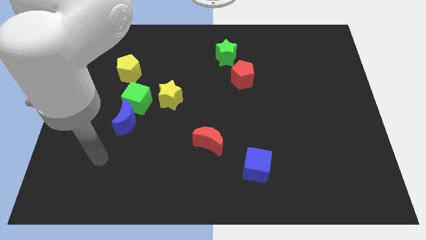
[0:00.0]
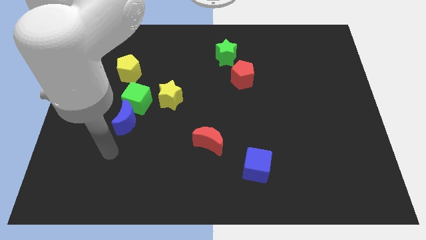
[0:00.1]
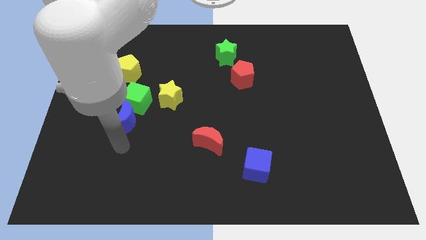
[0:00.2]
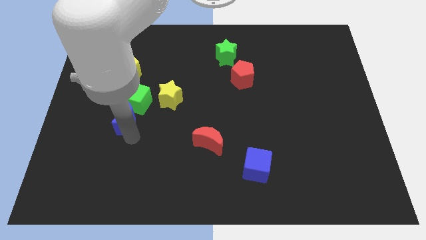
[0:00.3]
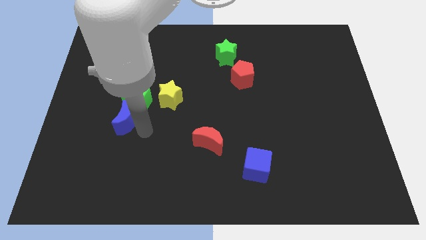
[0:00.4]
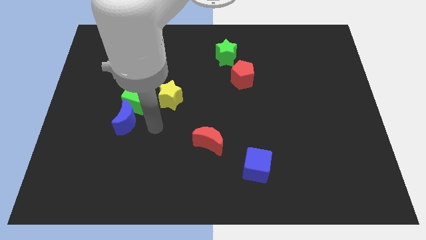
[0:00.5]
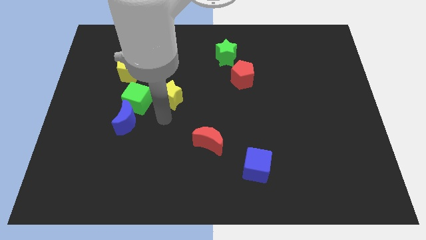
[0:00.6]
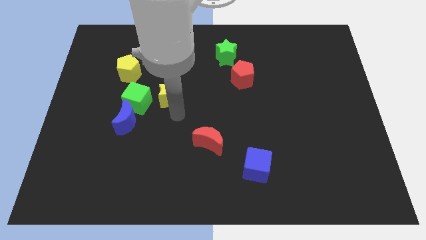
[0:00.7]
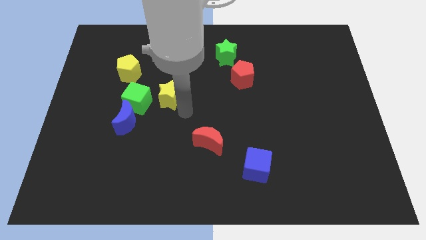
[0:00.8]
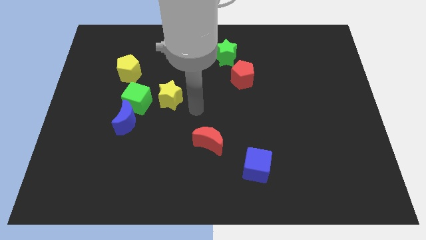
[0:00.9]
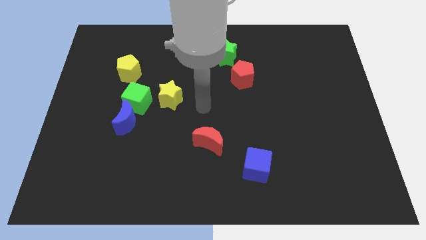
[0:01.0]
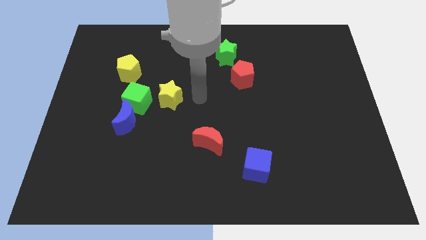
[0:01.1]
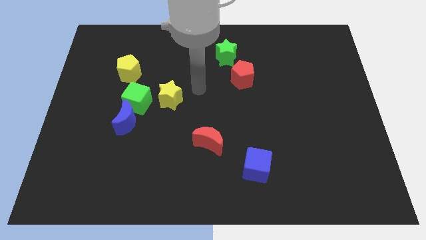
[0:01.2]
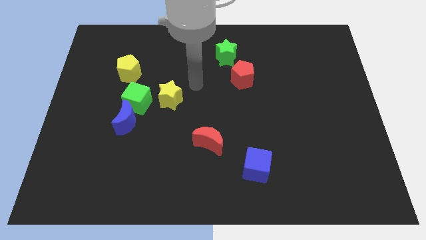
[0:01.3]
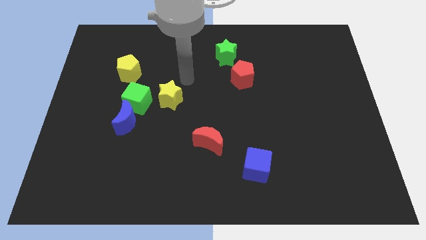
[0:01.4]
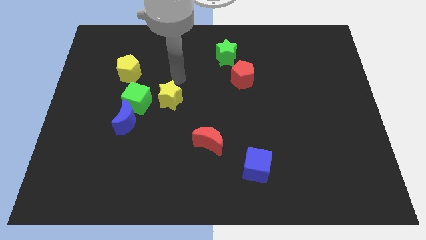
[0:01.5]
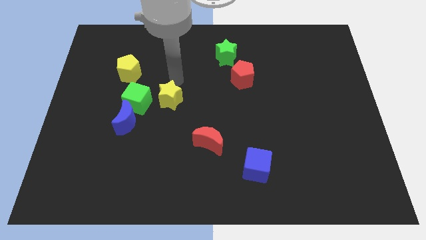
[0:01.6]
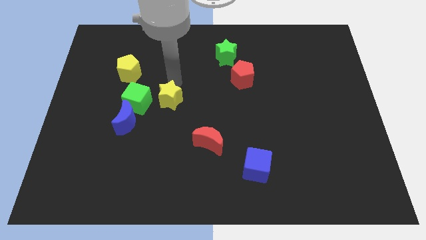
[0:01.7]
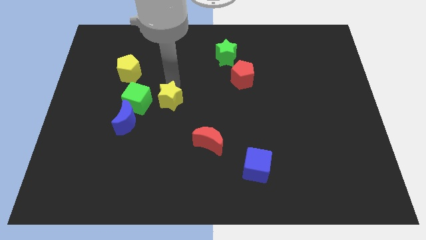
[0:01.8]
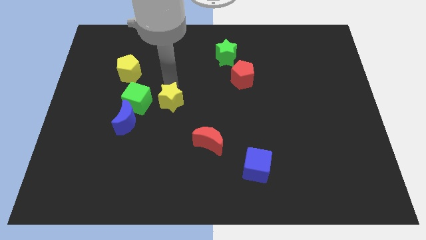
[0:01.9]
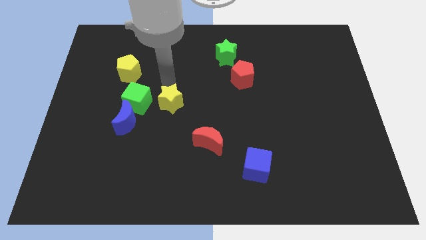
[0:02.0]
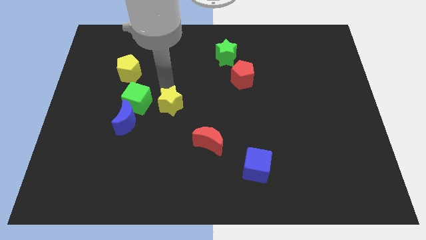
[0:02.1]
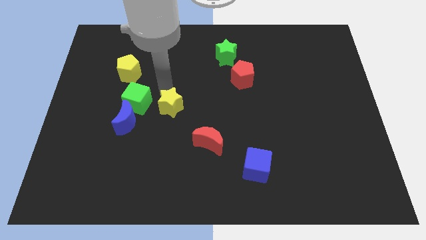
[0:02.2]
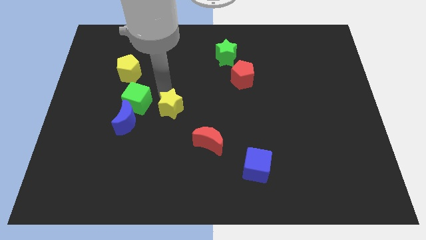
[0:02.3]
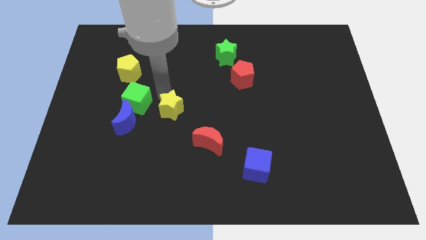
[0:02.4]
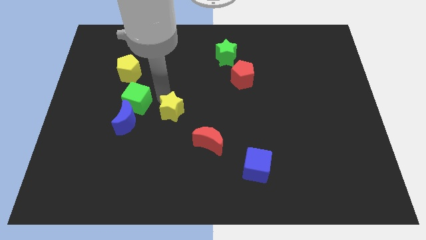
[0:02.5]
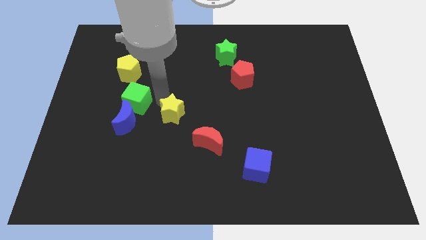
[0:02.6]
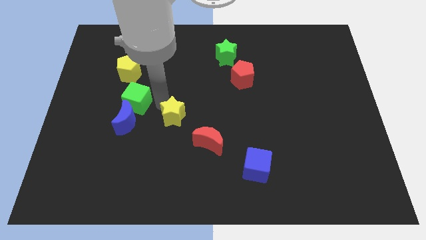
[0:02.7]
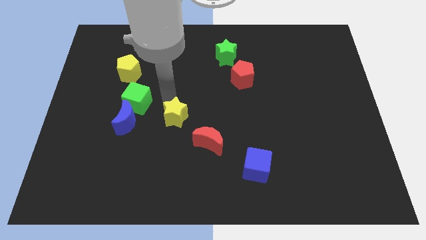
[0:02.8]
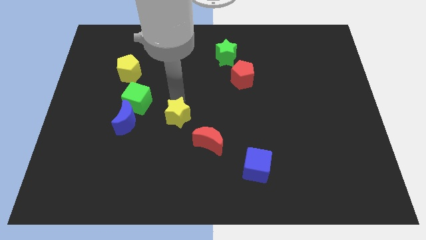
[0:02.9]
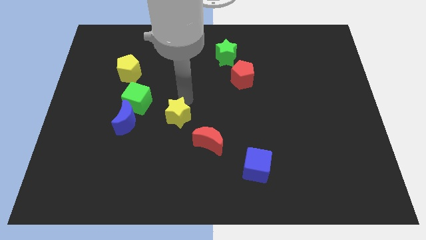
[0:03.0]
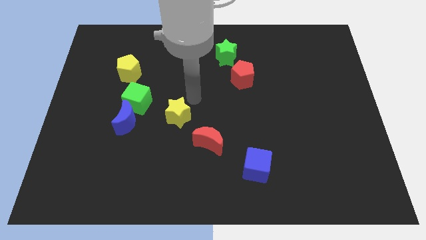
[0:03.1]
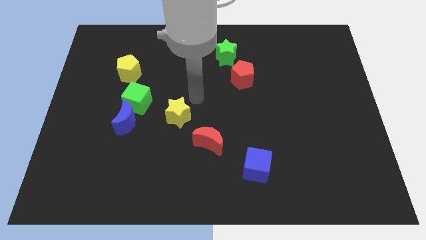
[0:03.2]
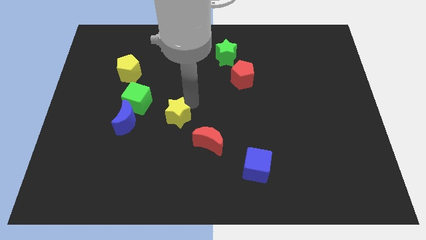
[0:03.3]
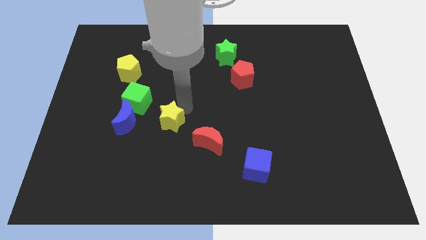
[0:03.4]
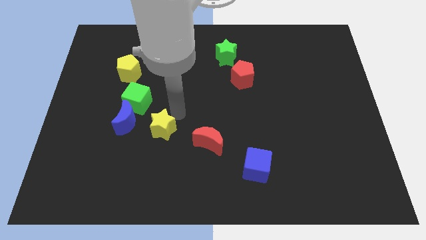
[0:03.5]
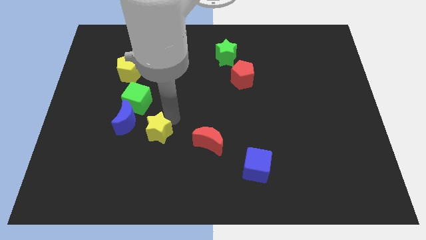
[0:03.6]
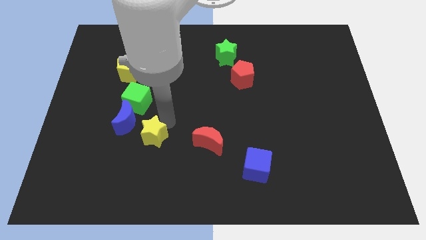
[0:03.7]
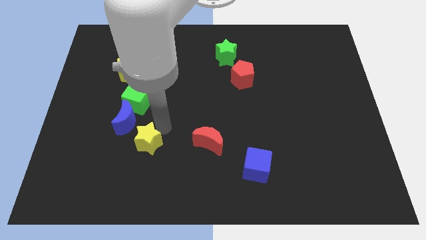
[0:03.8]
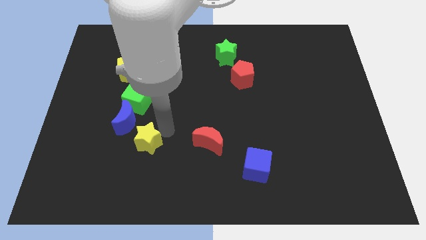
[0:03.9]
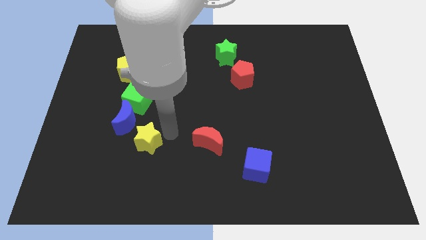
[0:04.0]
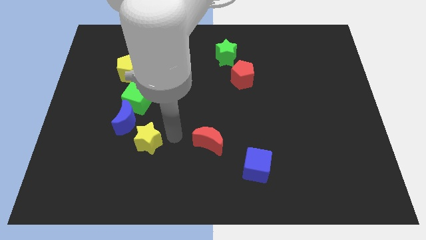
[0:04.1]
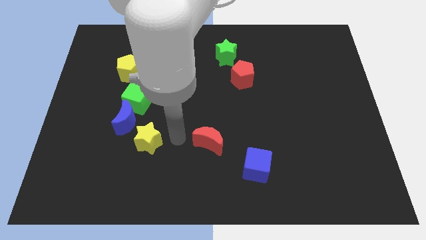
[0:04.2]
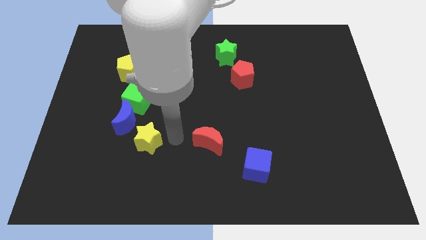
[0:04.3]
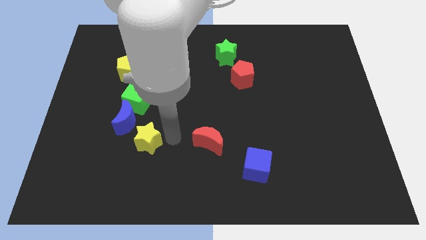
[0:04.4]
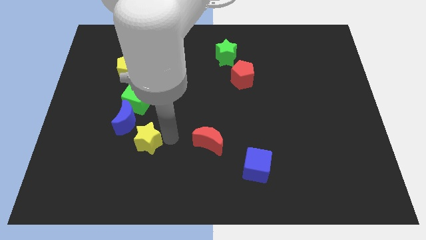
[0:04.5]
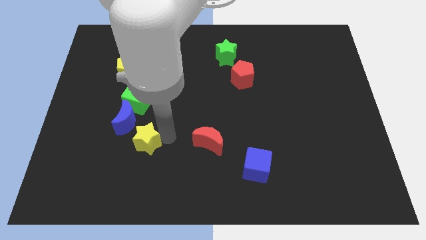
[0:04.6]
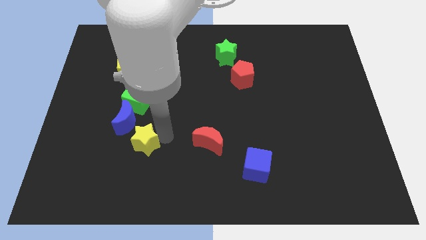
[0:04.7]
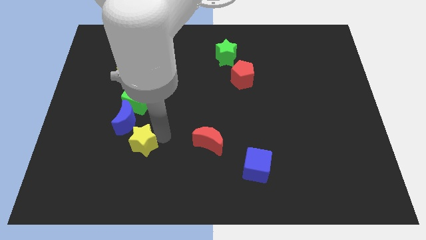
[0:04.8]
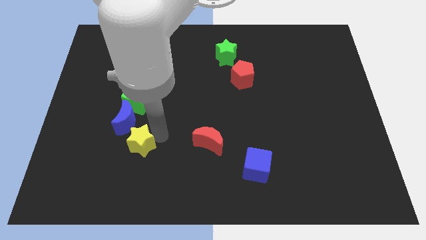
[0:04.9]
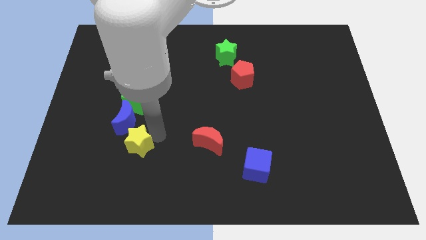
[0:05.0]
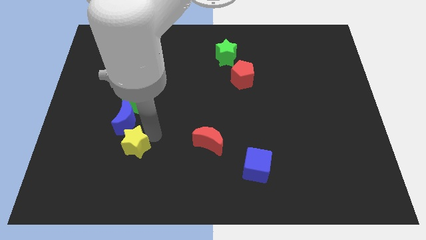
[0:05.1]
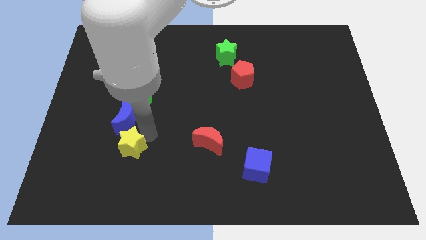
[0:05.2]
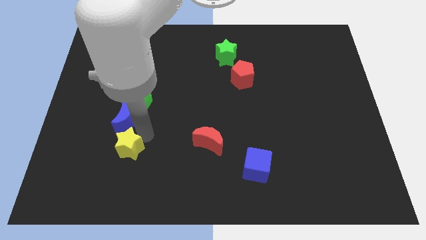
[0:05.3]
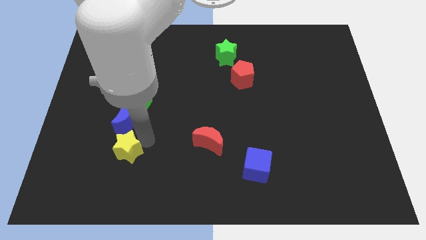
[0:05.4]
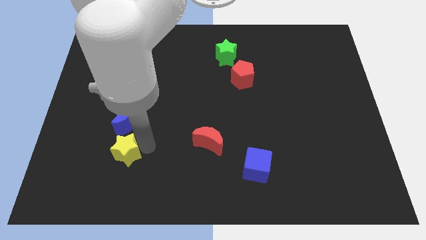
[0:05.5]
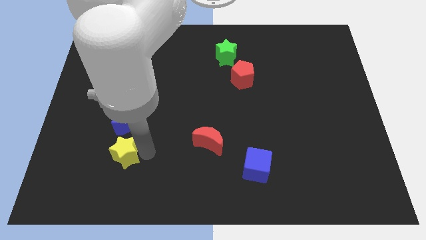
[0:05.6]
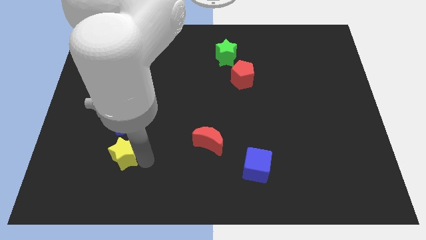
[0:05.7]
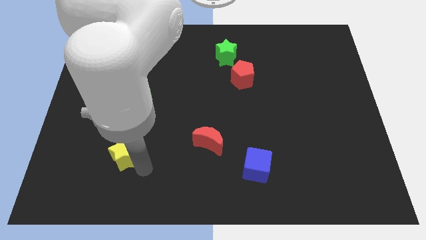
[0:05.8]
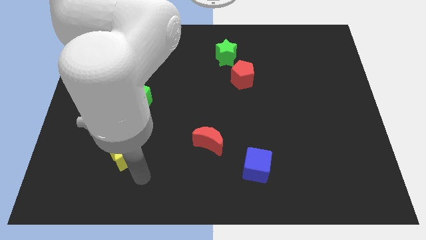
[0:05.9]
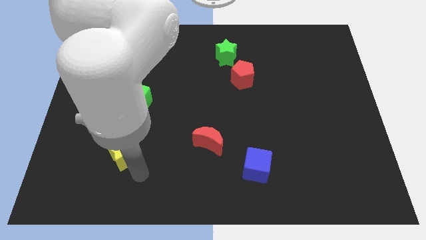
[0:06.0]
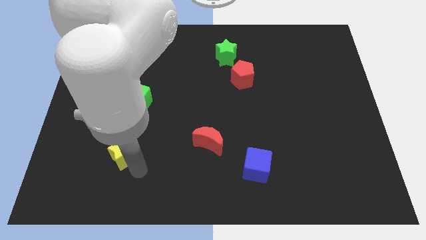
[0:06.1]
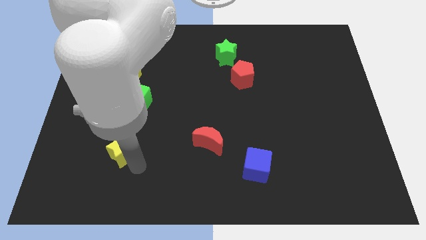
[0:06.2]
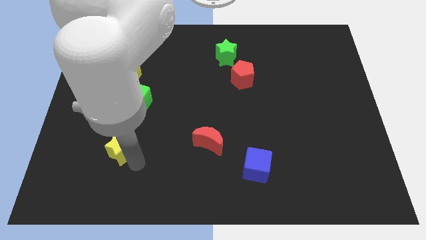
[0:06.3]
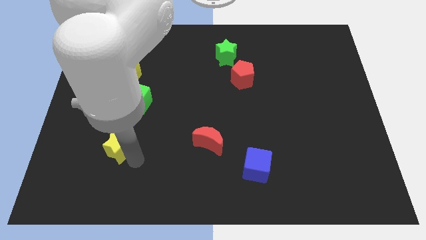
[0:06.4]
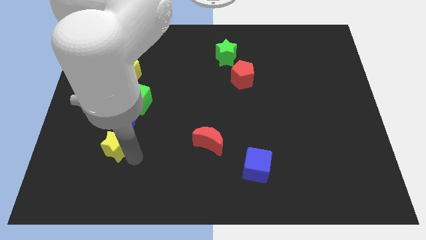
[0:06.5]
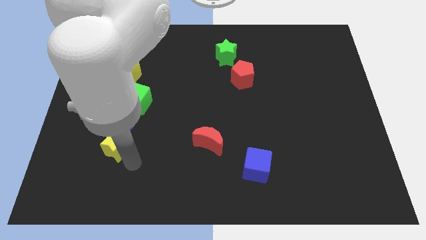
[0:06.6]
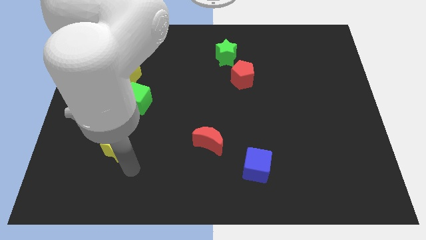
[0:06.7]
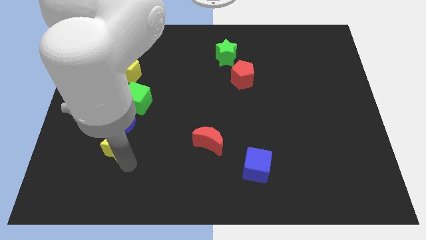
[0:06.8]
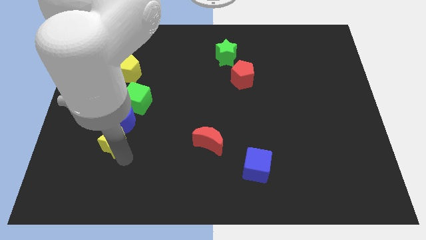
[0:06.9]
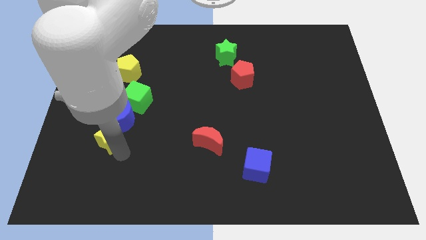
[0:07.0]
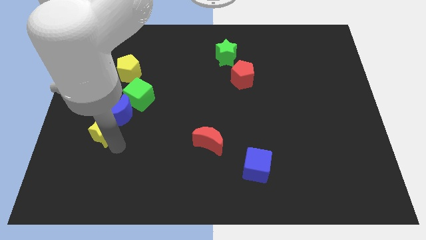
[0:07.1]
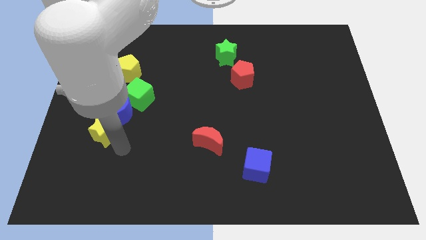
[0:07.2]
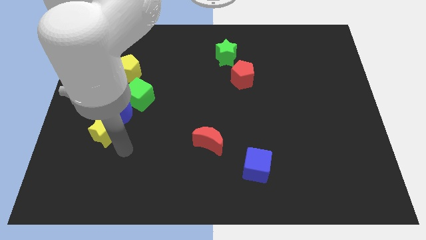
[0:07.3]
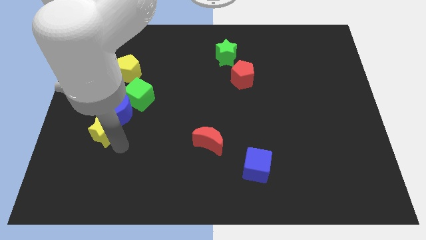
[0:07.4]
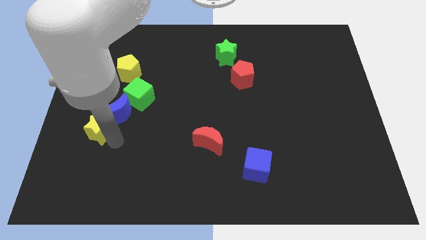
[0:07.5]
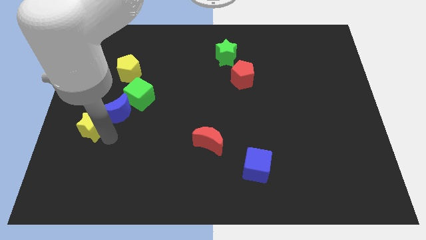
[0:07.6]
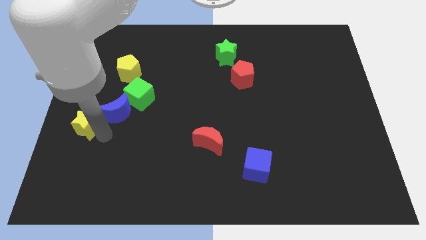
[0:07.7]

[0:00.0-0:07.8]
move the yellow star to the center left
